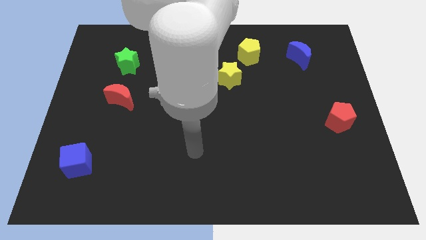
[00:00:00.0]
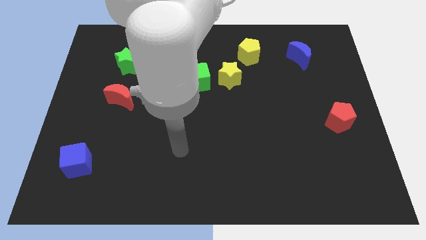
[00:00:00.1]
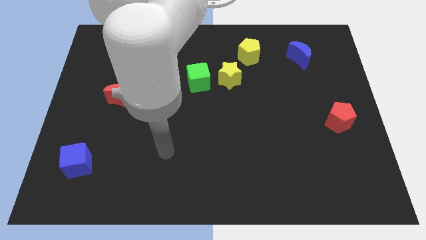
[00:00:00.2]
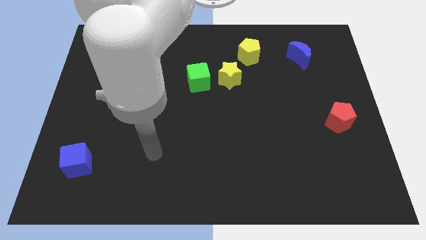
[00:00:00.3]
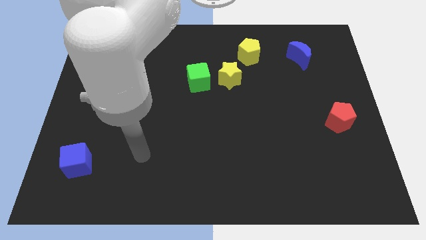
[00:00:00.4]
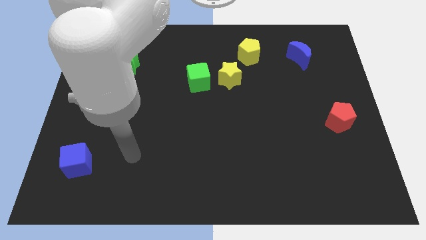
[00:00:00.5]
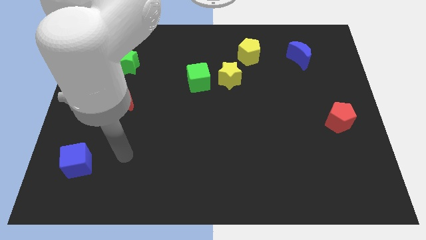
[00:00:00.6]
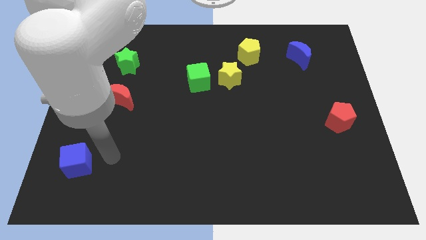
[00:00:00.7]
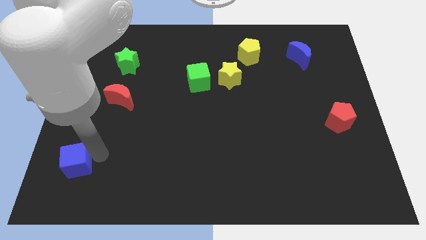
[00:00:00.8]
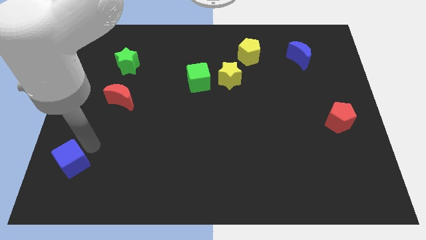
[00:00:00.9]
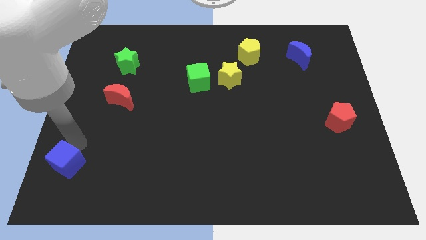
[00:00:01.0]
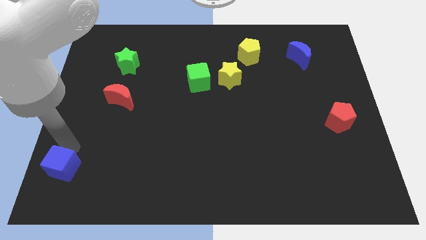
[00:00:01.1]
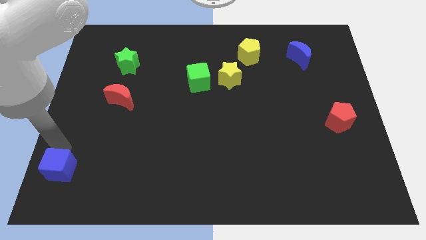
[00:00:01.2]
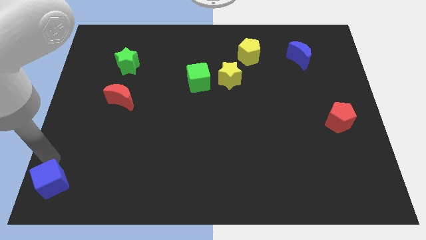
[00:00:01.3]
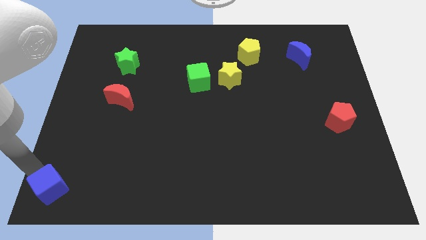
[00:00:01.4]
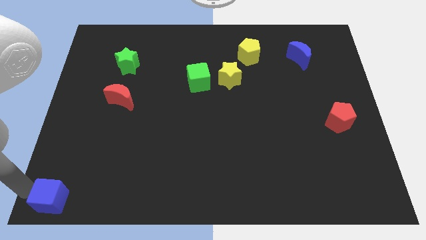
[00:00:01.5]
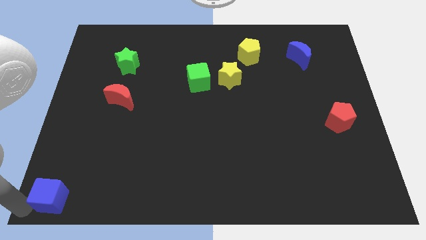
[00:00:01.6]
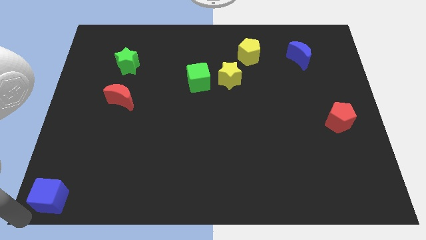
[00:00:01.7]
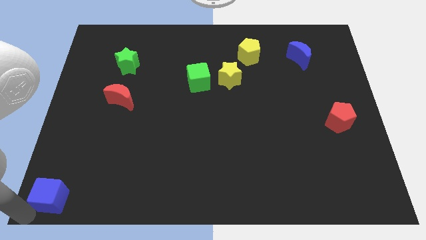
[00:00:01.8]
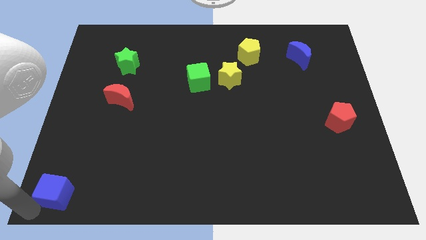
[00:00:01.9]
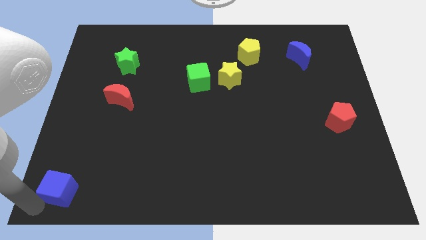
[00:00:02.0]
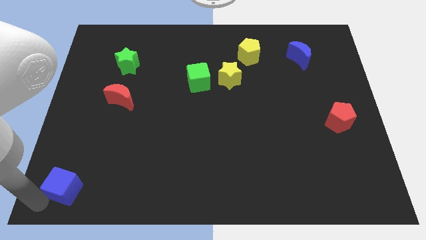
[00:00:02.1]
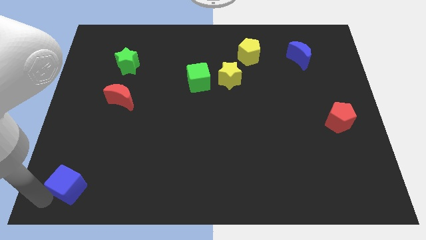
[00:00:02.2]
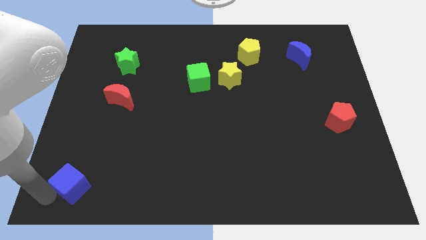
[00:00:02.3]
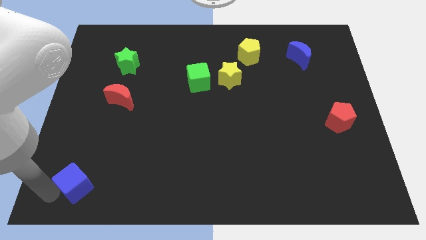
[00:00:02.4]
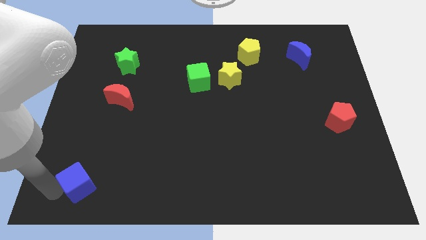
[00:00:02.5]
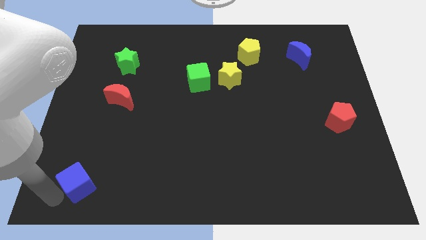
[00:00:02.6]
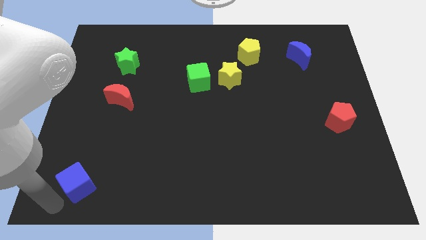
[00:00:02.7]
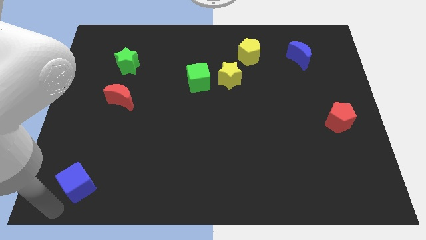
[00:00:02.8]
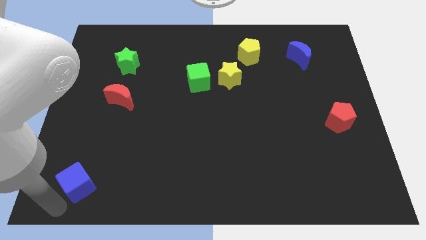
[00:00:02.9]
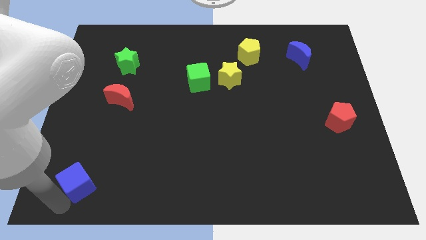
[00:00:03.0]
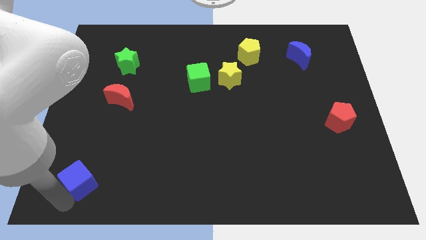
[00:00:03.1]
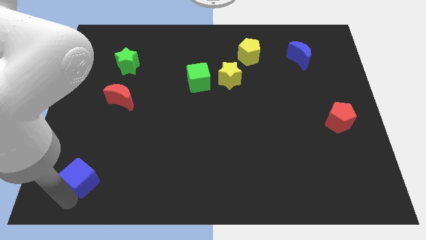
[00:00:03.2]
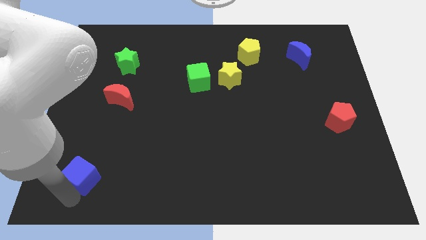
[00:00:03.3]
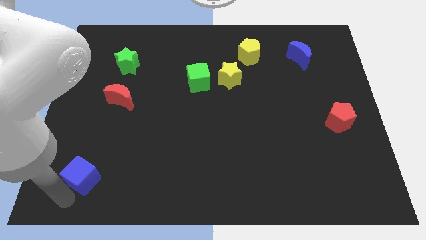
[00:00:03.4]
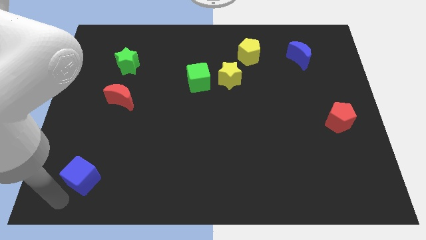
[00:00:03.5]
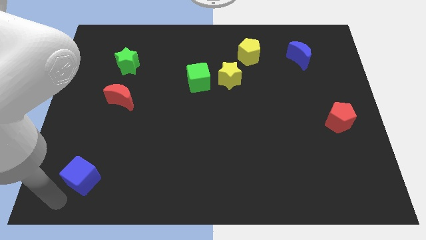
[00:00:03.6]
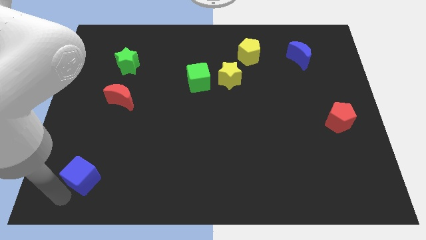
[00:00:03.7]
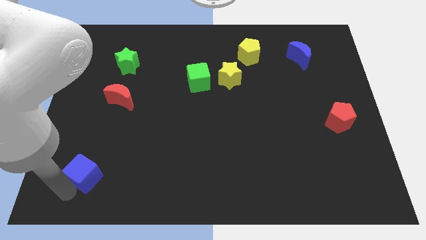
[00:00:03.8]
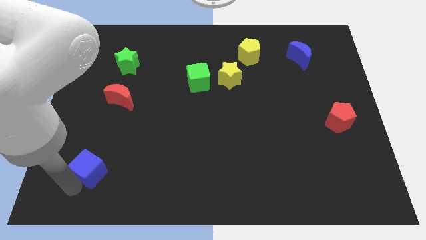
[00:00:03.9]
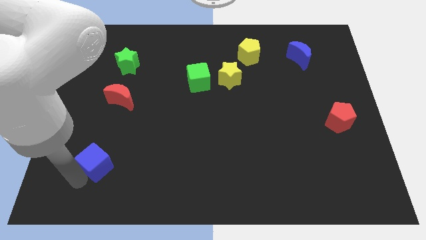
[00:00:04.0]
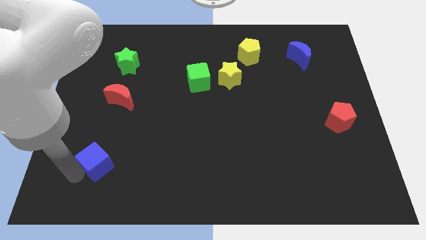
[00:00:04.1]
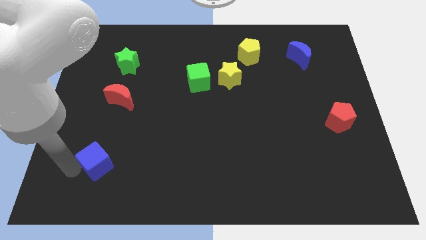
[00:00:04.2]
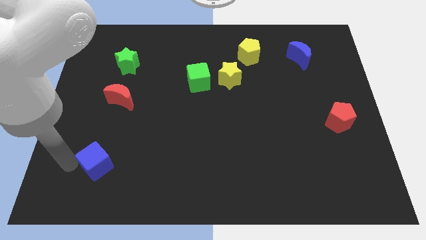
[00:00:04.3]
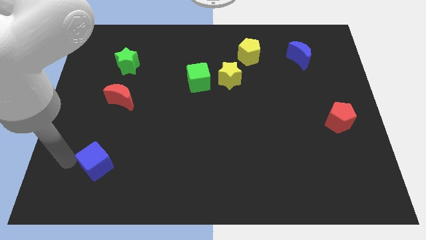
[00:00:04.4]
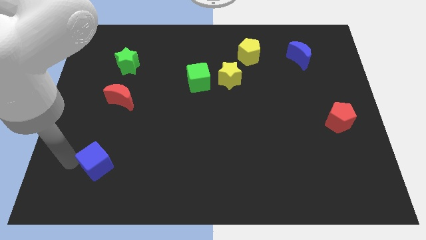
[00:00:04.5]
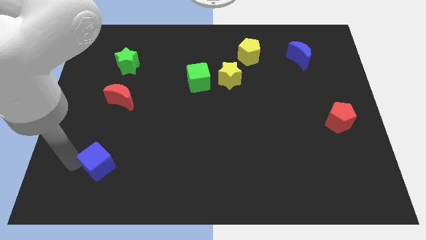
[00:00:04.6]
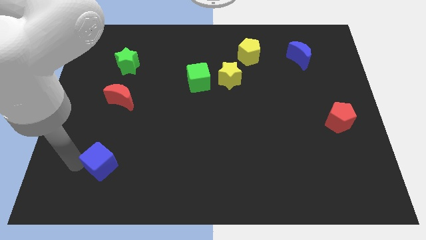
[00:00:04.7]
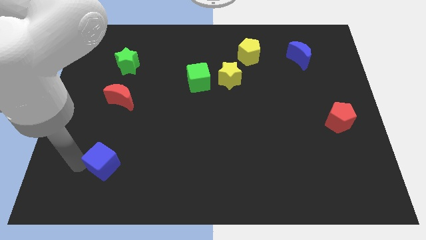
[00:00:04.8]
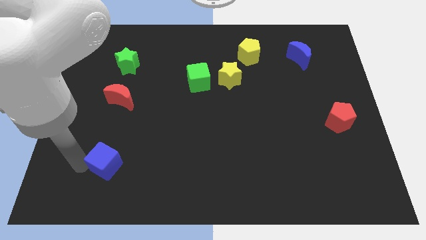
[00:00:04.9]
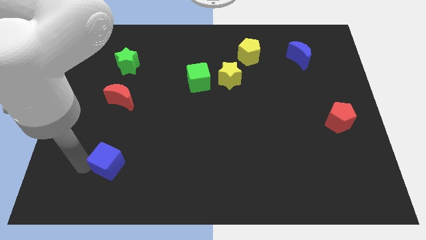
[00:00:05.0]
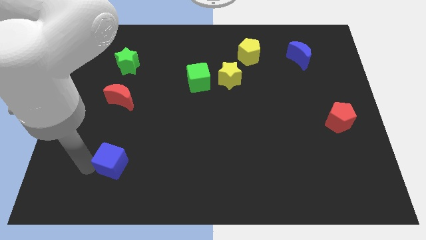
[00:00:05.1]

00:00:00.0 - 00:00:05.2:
slightly slide the blue cube right

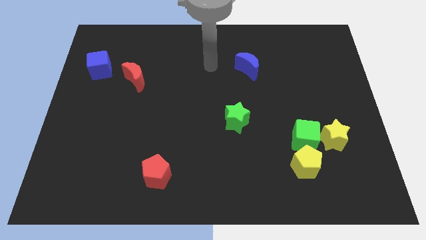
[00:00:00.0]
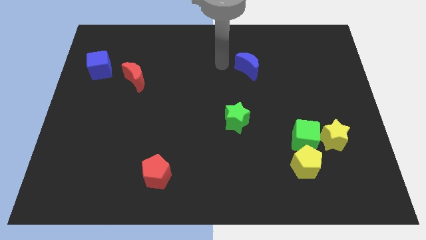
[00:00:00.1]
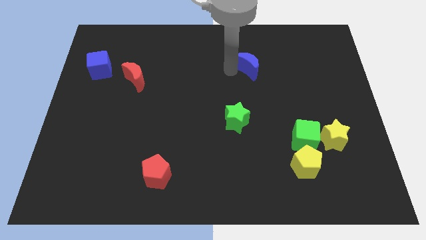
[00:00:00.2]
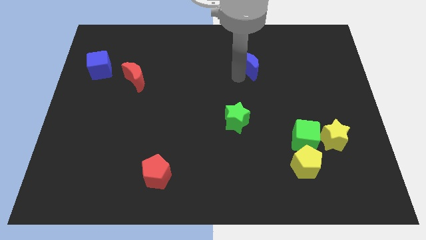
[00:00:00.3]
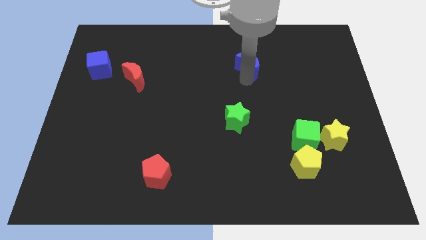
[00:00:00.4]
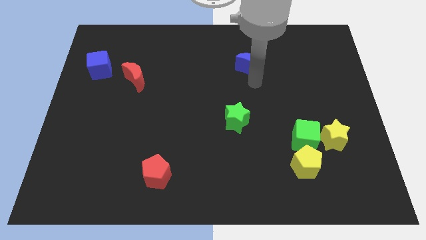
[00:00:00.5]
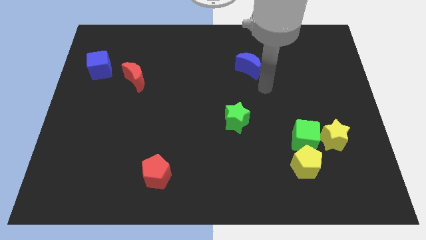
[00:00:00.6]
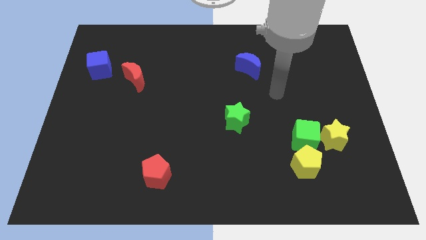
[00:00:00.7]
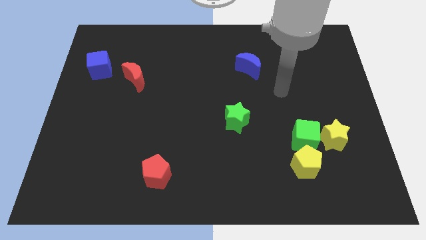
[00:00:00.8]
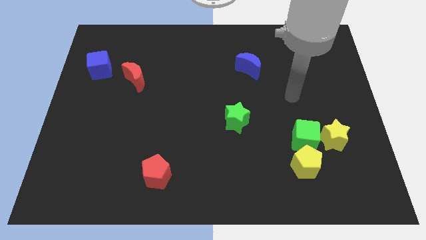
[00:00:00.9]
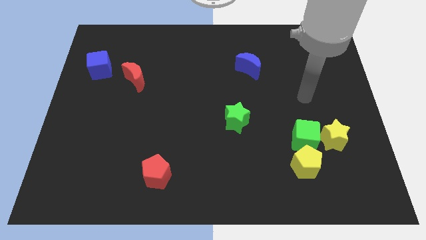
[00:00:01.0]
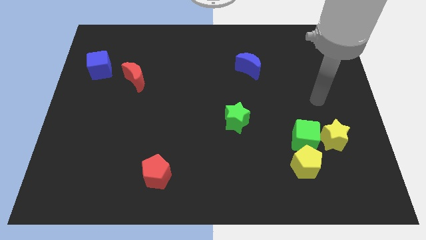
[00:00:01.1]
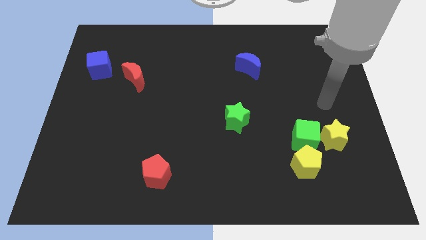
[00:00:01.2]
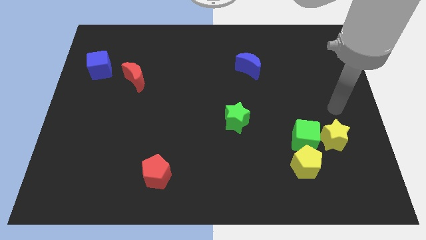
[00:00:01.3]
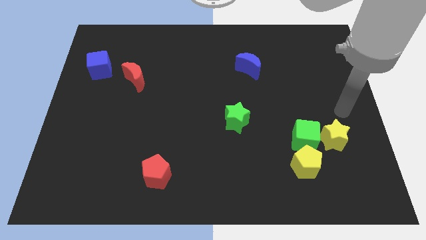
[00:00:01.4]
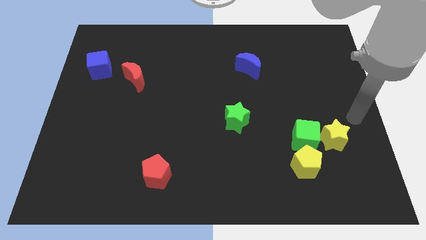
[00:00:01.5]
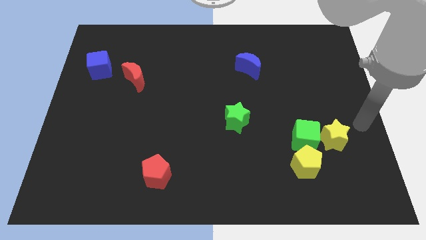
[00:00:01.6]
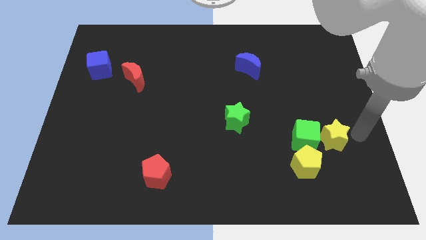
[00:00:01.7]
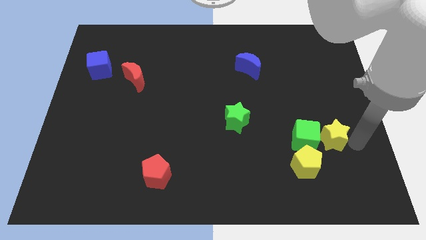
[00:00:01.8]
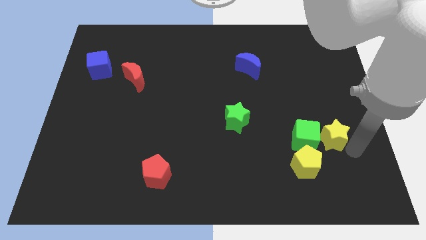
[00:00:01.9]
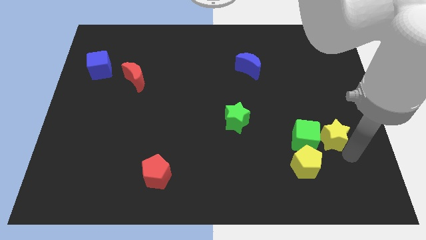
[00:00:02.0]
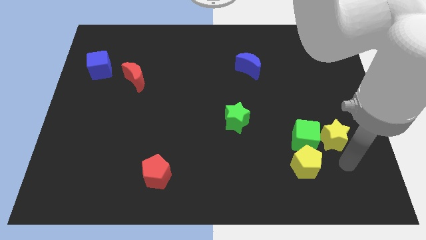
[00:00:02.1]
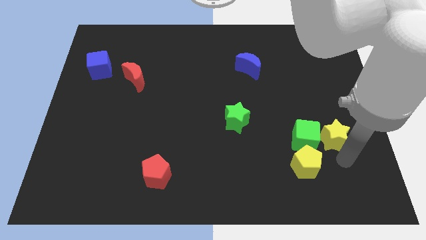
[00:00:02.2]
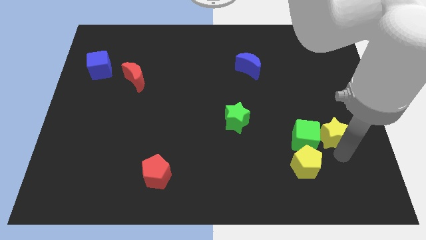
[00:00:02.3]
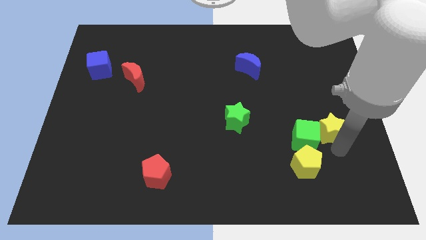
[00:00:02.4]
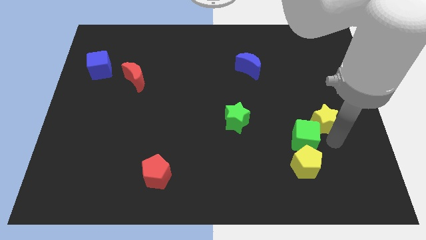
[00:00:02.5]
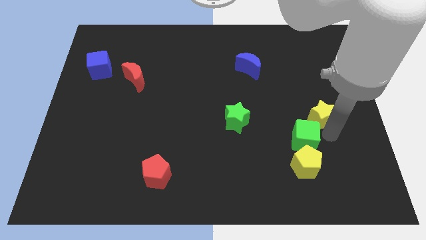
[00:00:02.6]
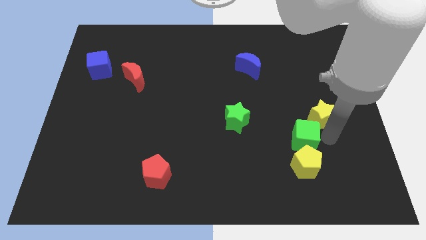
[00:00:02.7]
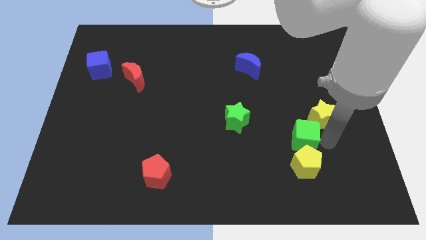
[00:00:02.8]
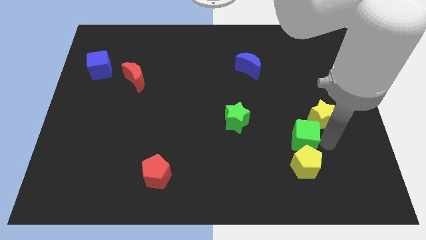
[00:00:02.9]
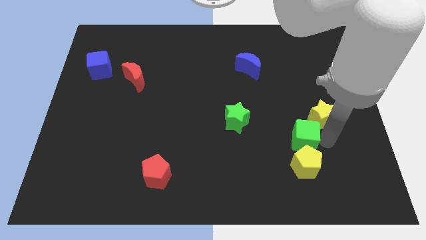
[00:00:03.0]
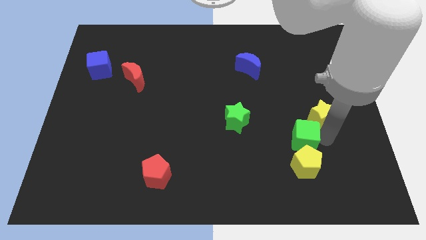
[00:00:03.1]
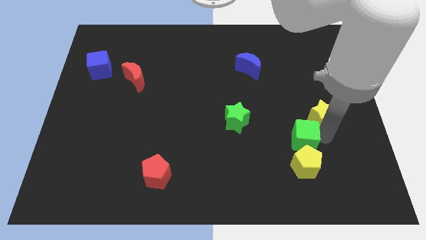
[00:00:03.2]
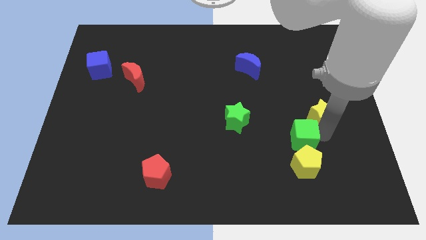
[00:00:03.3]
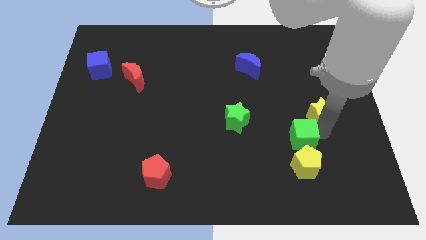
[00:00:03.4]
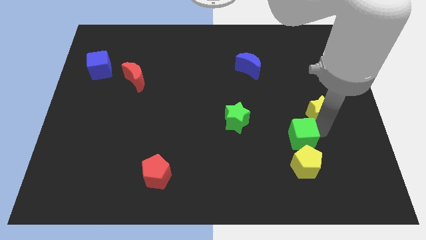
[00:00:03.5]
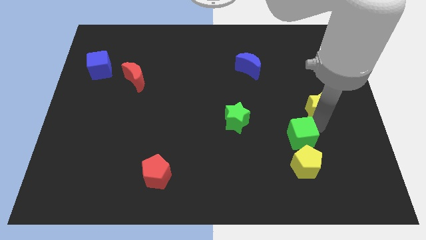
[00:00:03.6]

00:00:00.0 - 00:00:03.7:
push the yellow star upwards a bit
